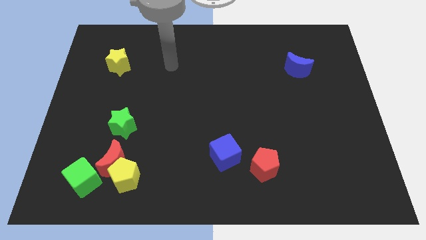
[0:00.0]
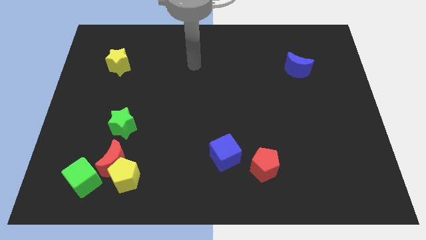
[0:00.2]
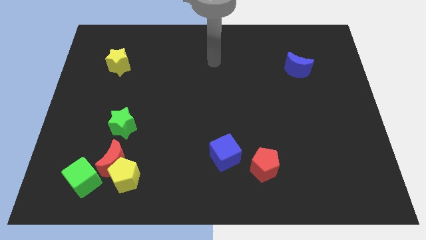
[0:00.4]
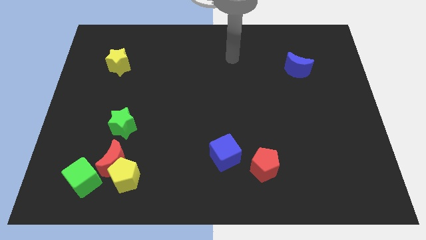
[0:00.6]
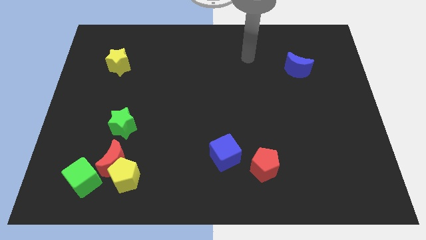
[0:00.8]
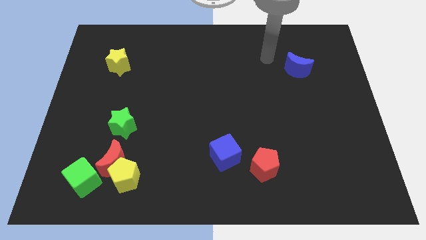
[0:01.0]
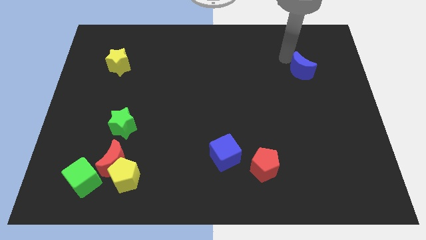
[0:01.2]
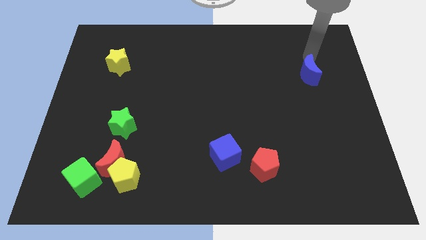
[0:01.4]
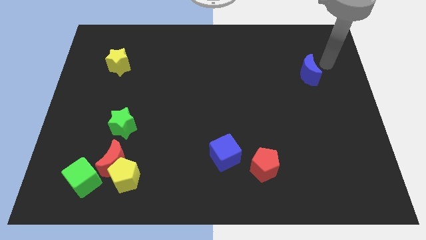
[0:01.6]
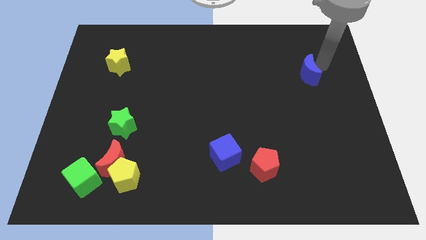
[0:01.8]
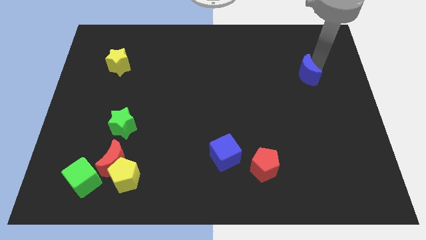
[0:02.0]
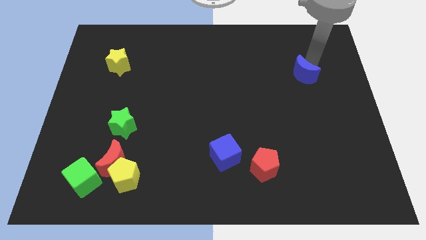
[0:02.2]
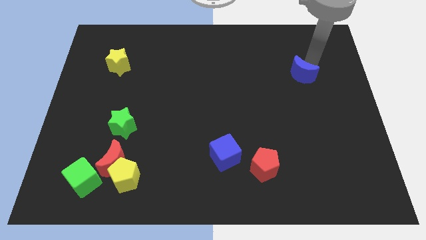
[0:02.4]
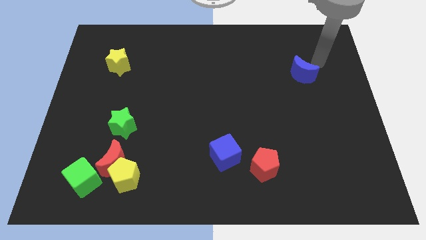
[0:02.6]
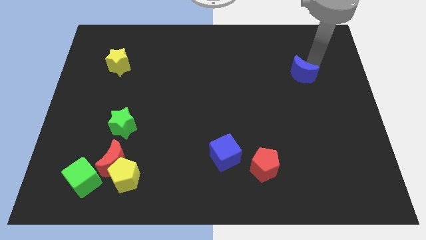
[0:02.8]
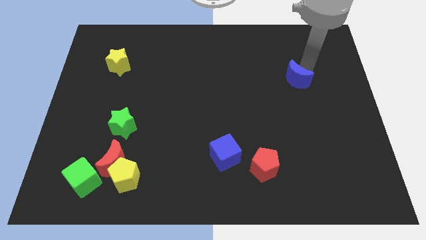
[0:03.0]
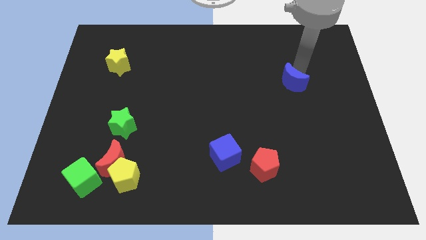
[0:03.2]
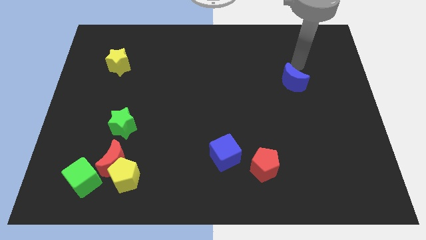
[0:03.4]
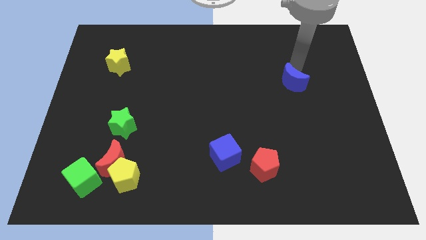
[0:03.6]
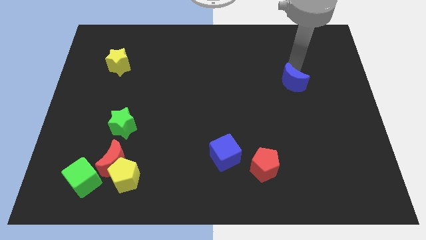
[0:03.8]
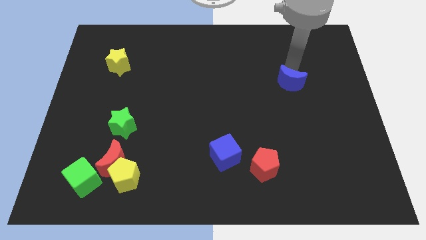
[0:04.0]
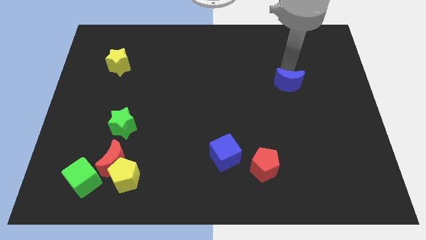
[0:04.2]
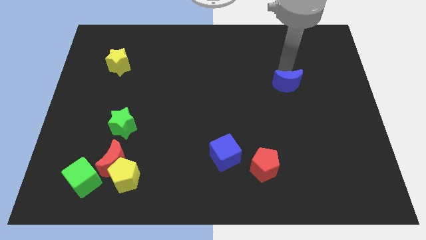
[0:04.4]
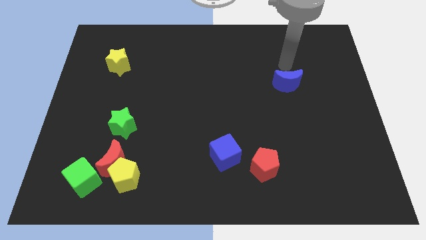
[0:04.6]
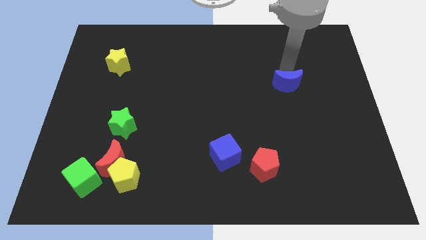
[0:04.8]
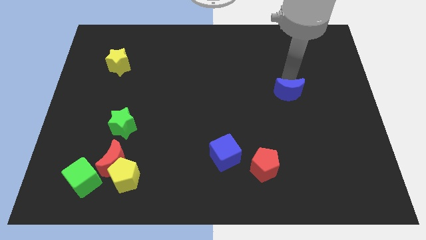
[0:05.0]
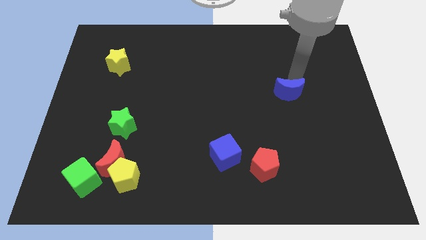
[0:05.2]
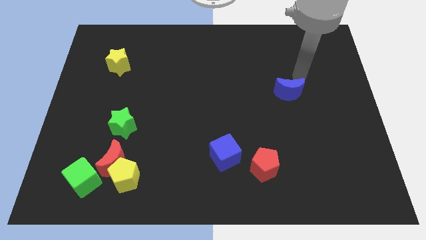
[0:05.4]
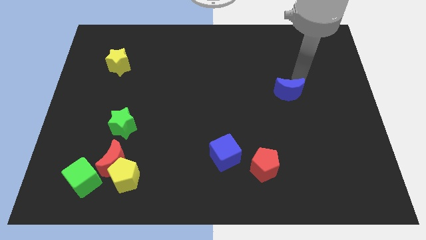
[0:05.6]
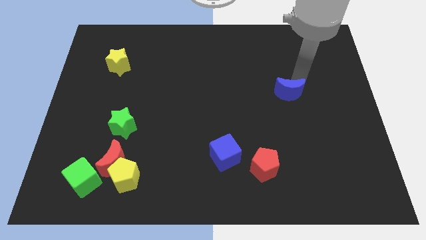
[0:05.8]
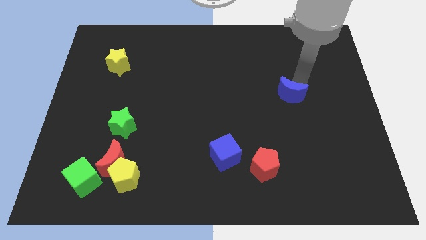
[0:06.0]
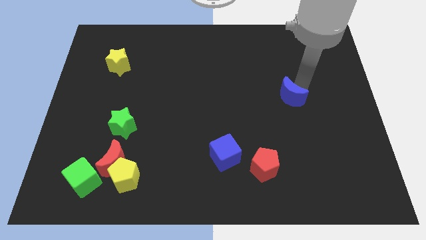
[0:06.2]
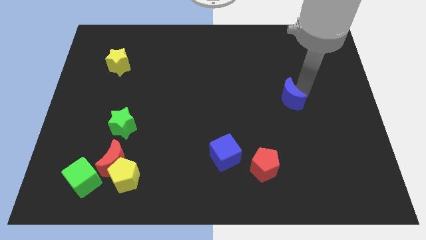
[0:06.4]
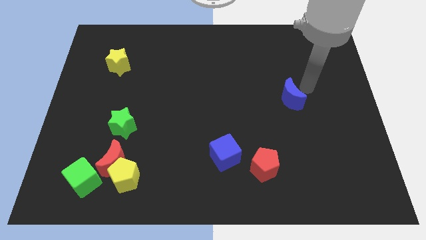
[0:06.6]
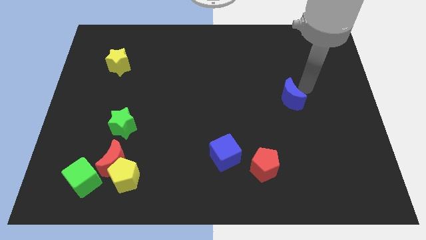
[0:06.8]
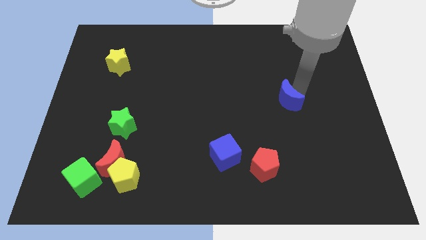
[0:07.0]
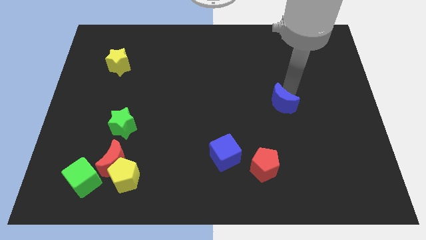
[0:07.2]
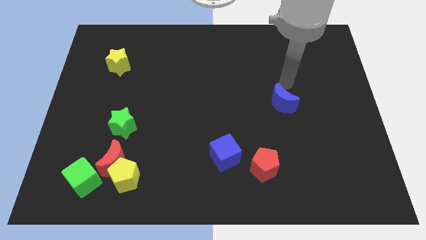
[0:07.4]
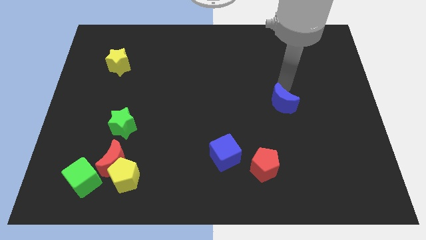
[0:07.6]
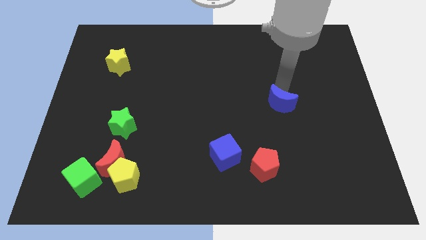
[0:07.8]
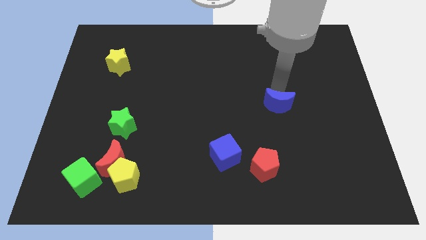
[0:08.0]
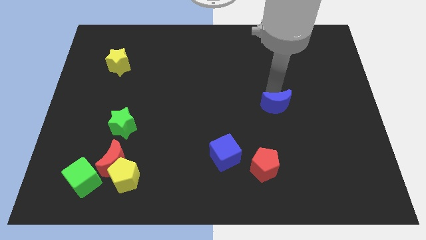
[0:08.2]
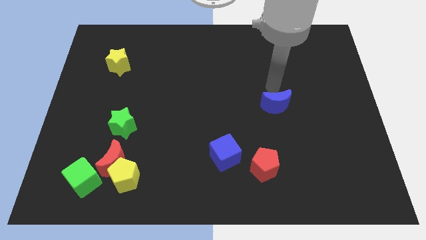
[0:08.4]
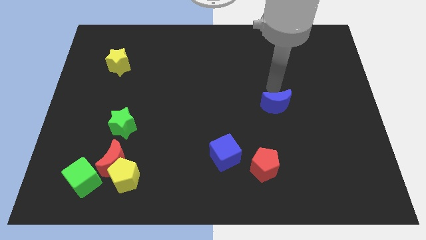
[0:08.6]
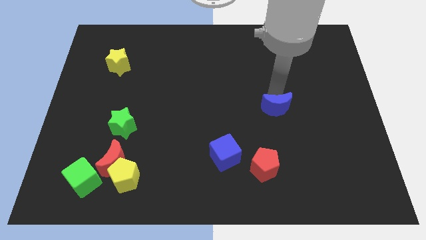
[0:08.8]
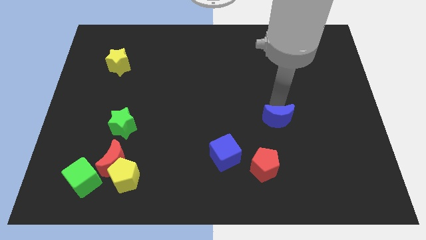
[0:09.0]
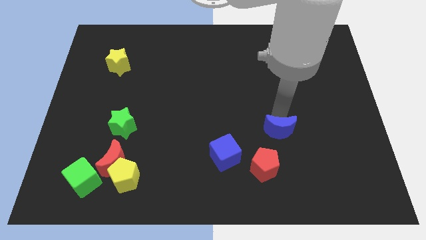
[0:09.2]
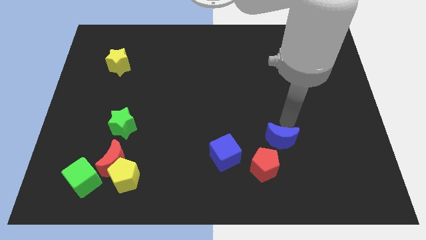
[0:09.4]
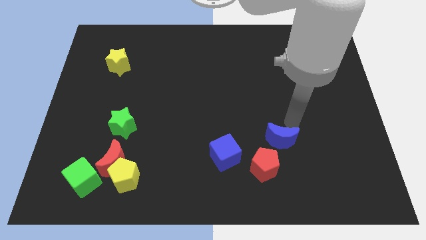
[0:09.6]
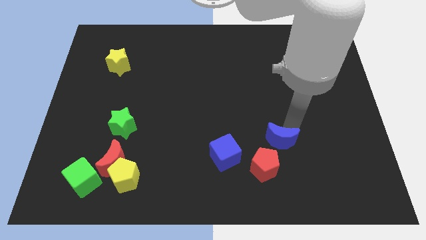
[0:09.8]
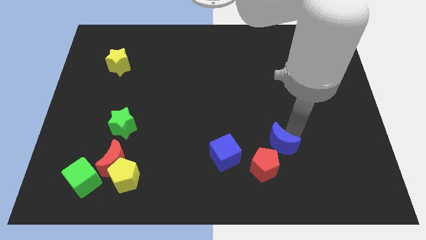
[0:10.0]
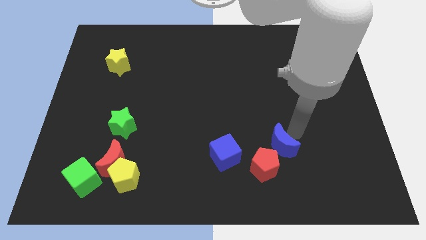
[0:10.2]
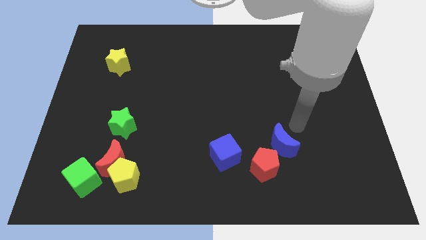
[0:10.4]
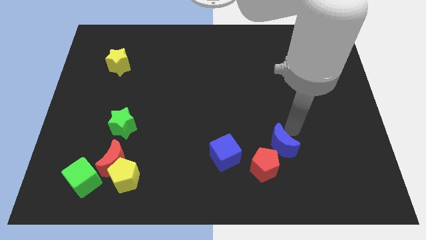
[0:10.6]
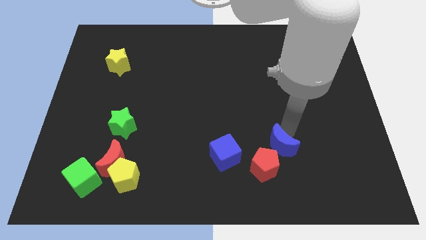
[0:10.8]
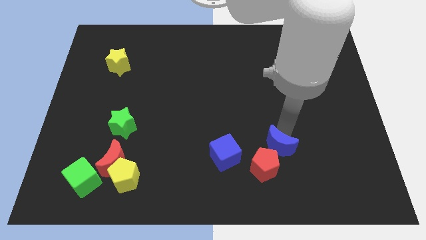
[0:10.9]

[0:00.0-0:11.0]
move the blue moon next to the red pentagon

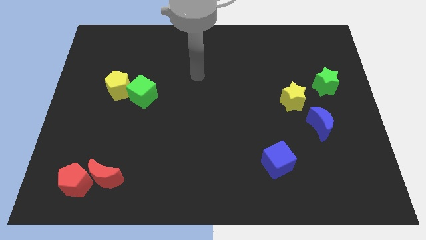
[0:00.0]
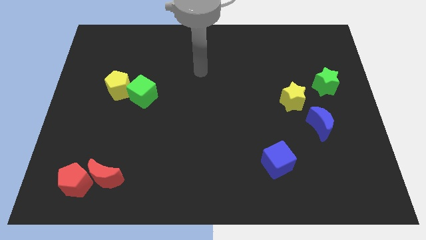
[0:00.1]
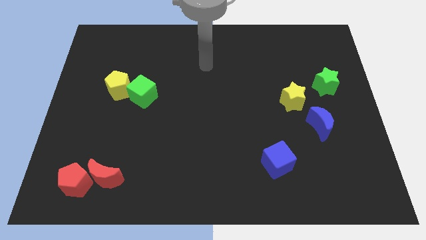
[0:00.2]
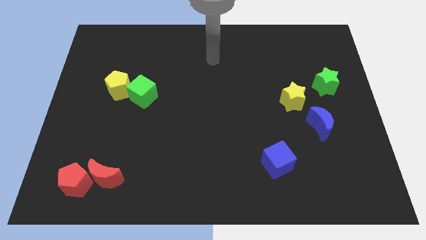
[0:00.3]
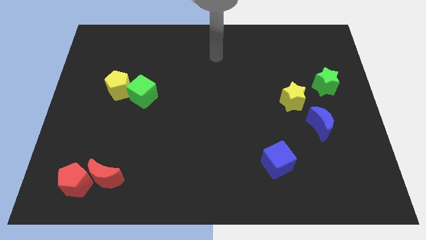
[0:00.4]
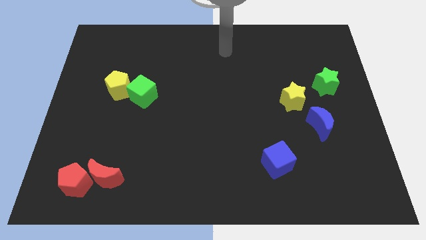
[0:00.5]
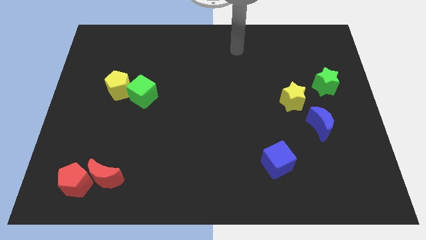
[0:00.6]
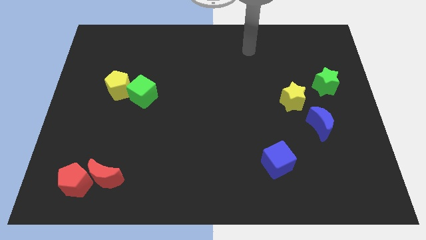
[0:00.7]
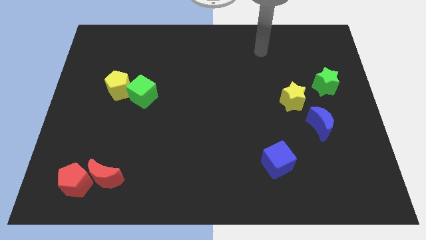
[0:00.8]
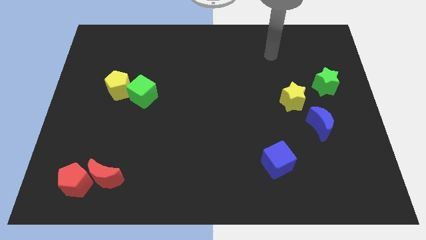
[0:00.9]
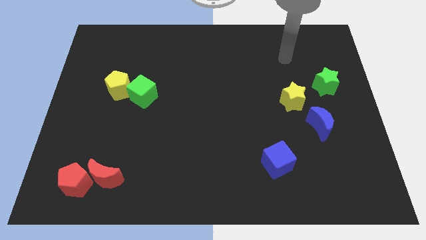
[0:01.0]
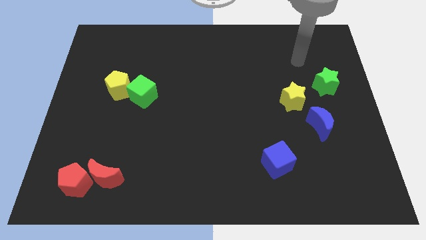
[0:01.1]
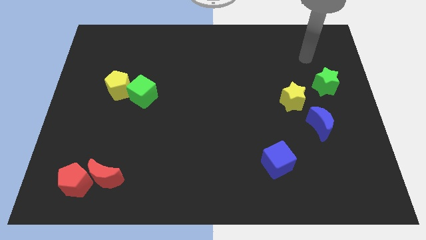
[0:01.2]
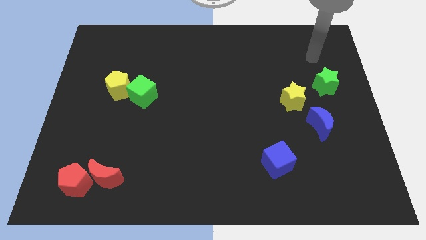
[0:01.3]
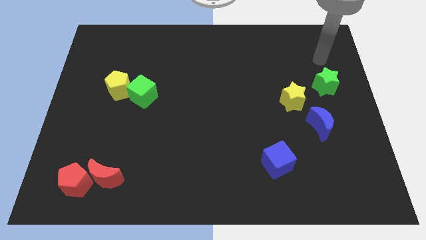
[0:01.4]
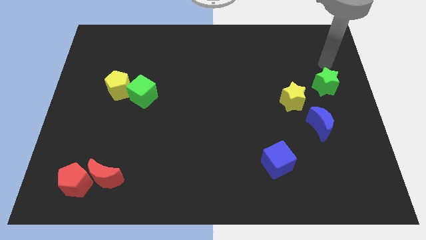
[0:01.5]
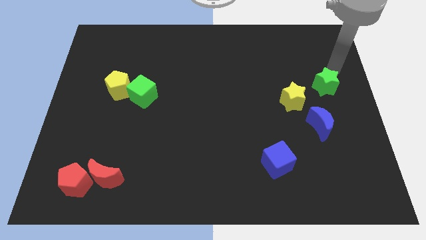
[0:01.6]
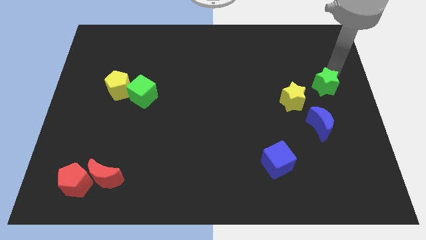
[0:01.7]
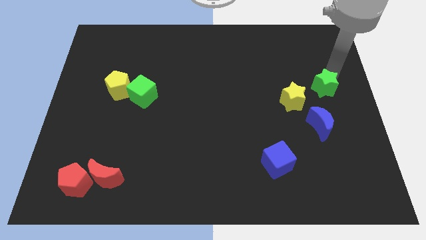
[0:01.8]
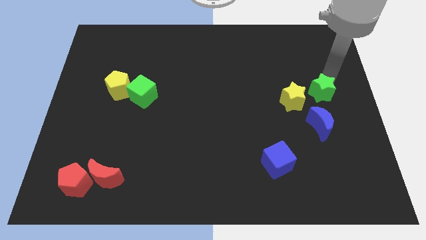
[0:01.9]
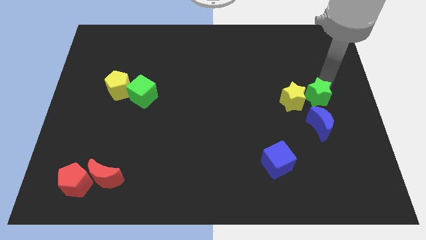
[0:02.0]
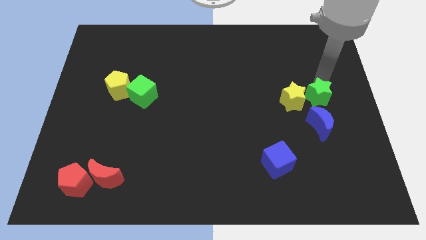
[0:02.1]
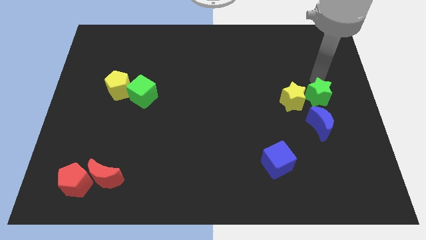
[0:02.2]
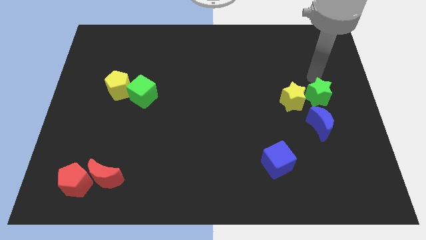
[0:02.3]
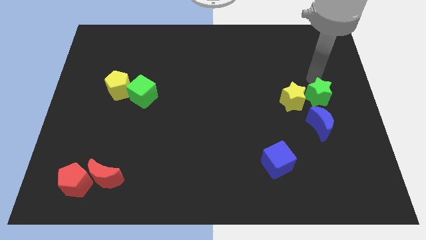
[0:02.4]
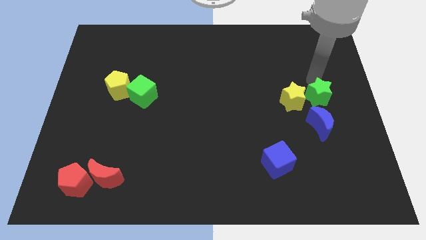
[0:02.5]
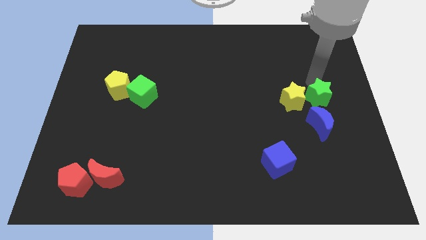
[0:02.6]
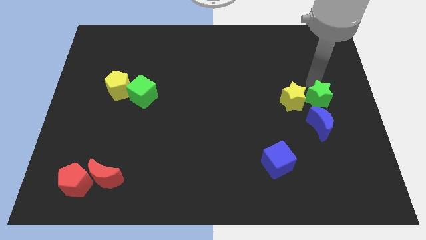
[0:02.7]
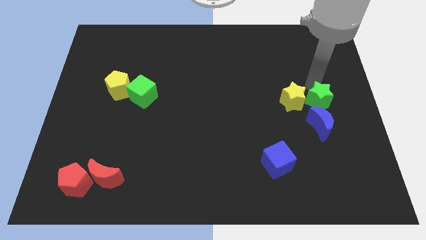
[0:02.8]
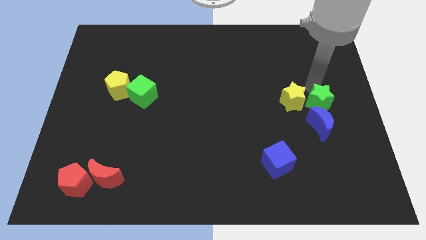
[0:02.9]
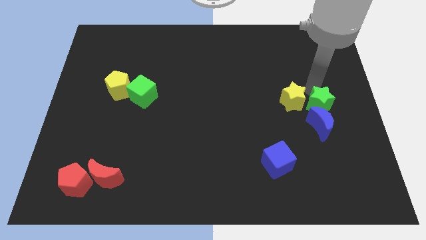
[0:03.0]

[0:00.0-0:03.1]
push the green star close to the blue moon
